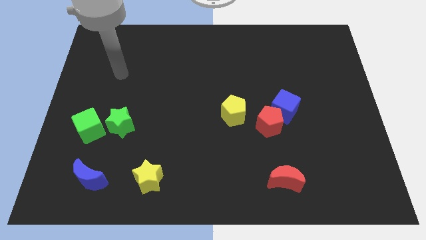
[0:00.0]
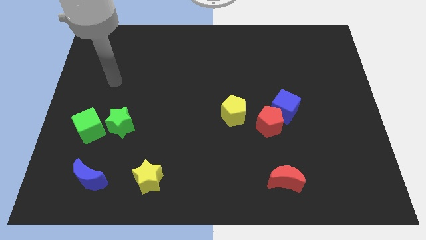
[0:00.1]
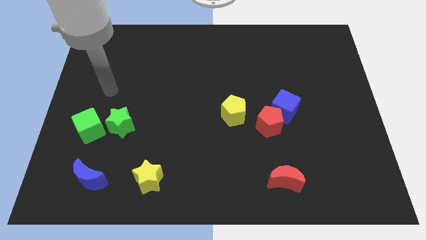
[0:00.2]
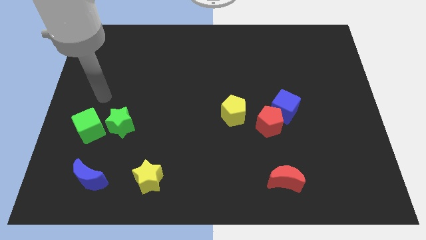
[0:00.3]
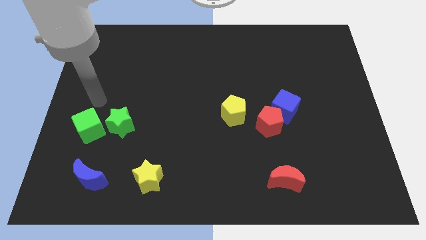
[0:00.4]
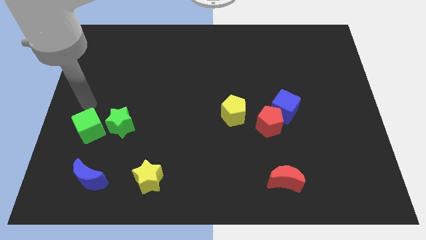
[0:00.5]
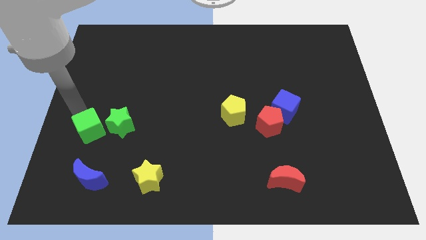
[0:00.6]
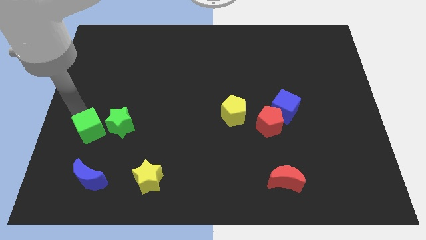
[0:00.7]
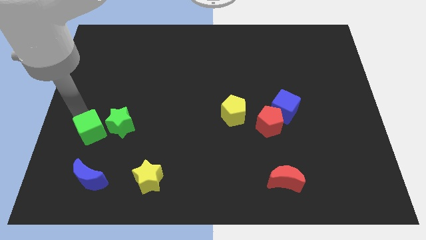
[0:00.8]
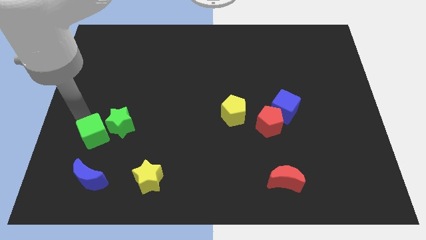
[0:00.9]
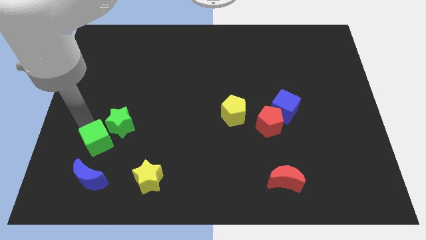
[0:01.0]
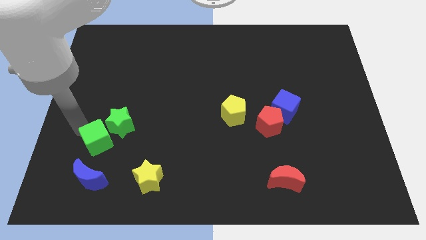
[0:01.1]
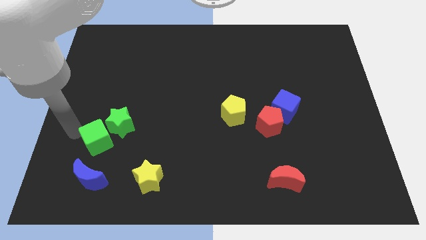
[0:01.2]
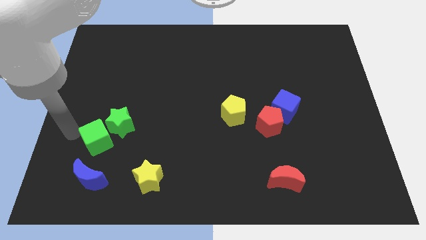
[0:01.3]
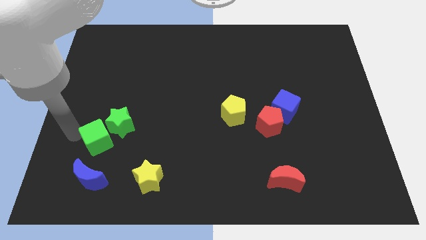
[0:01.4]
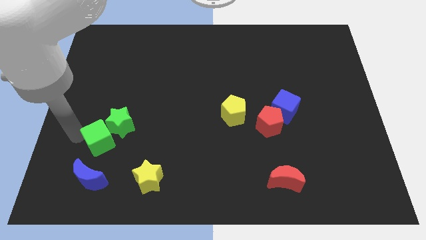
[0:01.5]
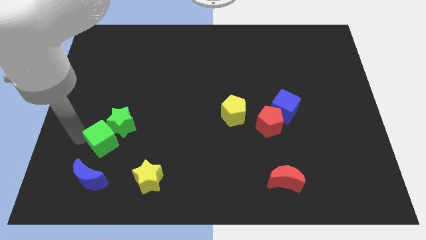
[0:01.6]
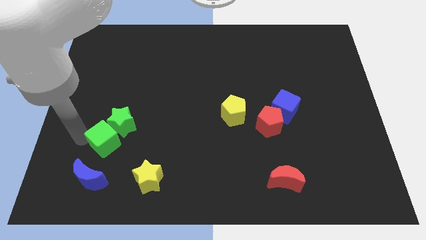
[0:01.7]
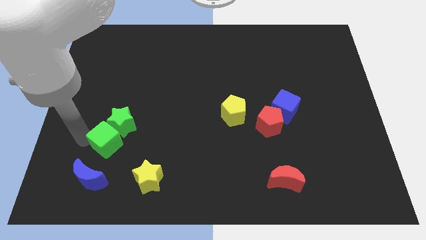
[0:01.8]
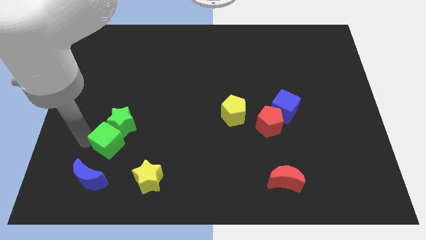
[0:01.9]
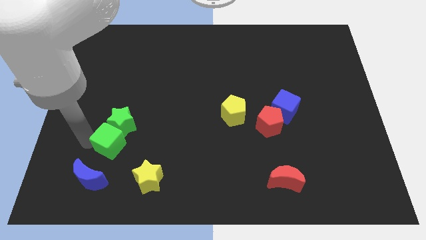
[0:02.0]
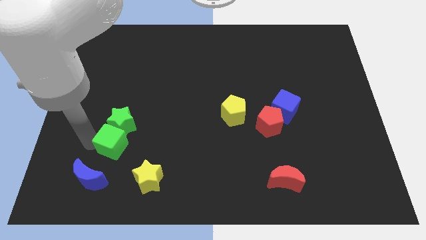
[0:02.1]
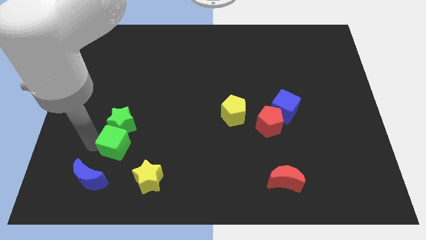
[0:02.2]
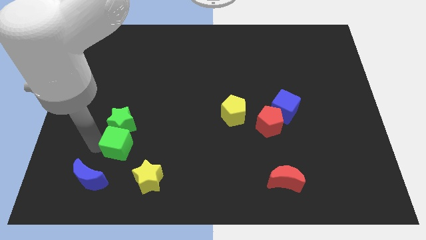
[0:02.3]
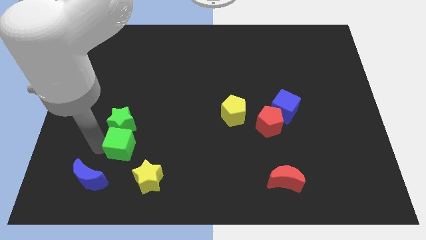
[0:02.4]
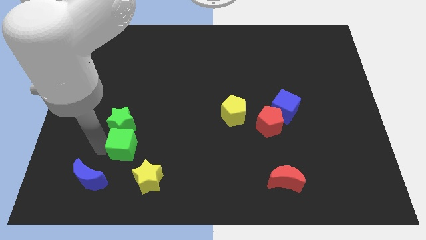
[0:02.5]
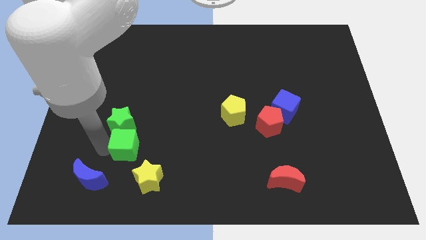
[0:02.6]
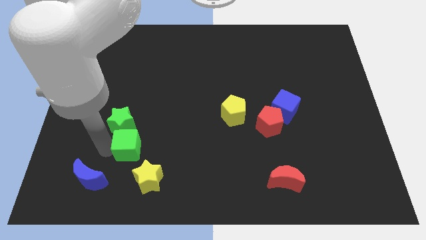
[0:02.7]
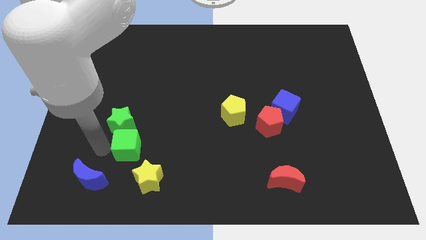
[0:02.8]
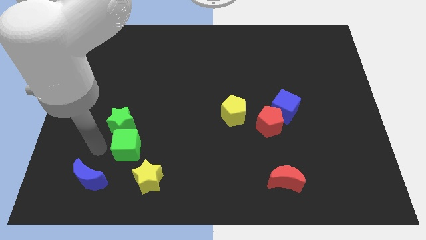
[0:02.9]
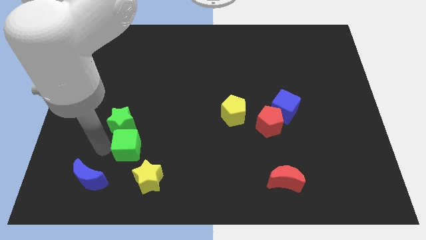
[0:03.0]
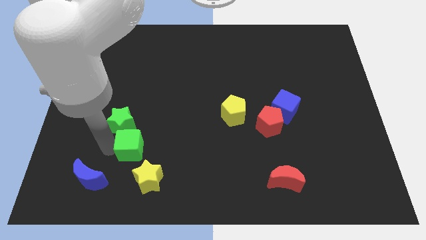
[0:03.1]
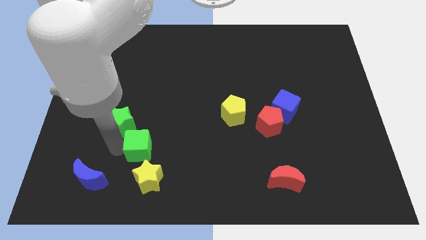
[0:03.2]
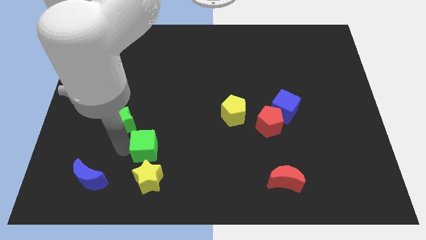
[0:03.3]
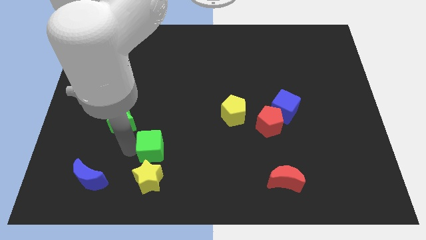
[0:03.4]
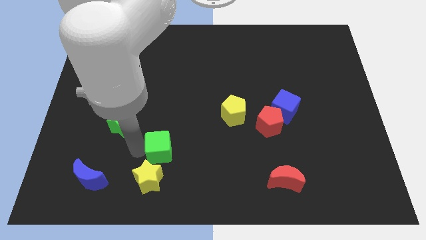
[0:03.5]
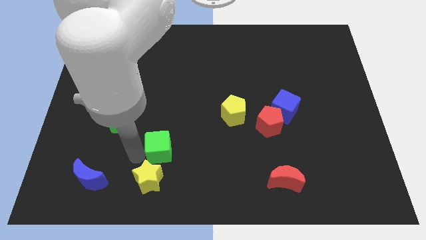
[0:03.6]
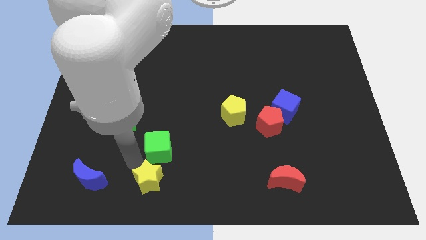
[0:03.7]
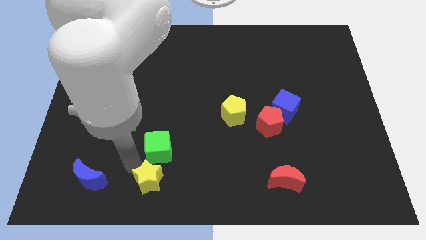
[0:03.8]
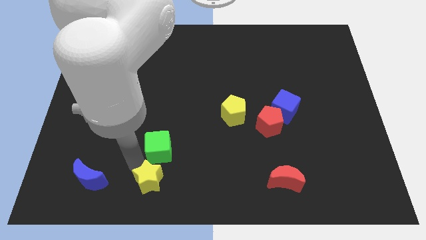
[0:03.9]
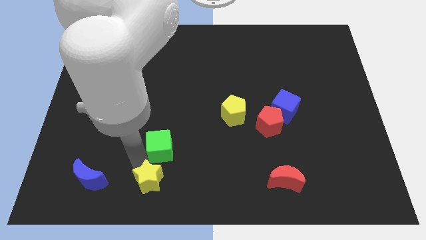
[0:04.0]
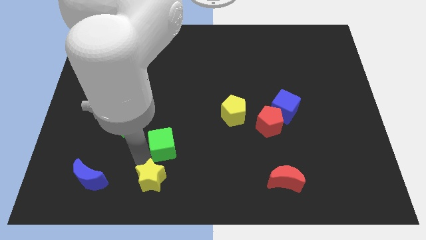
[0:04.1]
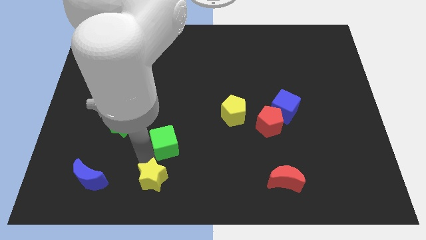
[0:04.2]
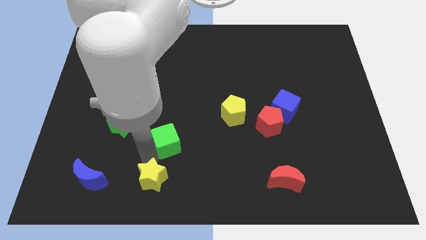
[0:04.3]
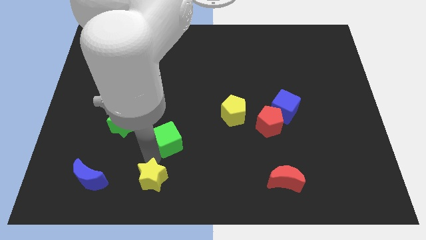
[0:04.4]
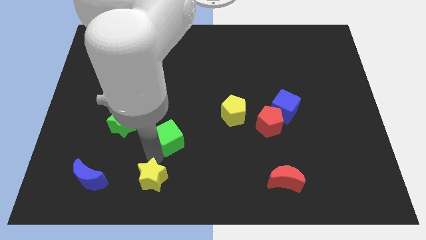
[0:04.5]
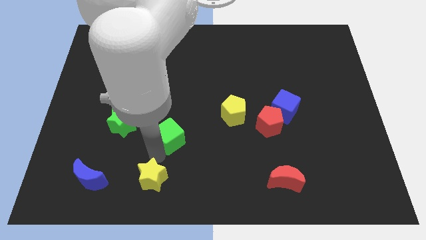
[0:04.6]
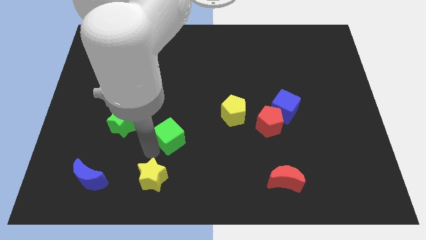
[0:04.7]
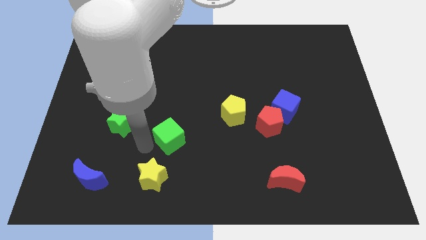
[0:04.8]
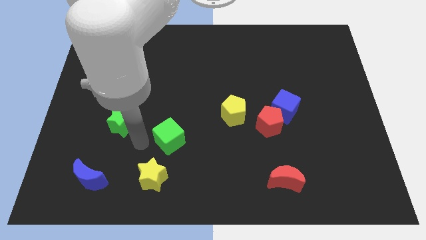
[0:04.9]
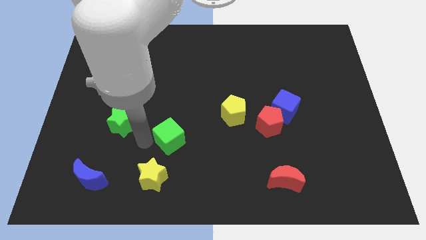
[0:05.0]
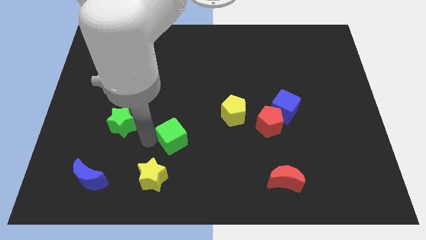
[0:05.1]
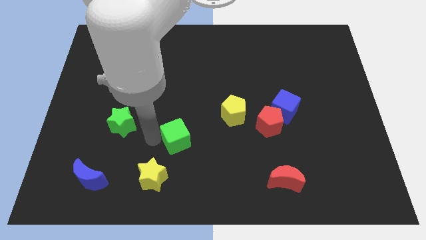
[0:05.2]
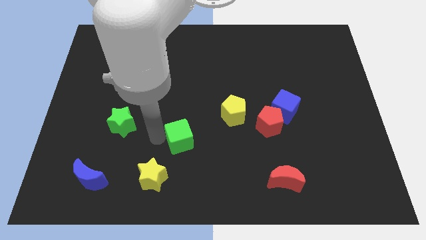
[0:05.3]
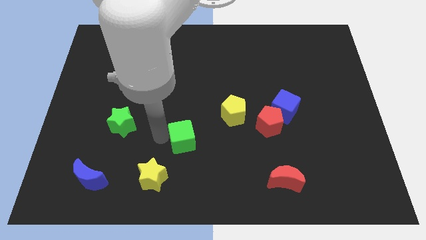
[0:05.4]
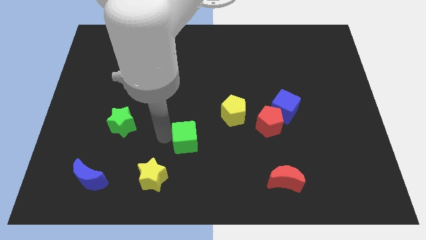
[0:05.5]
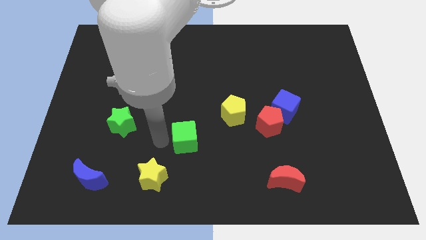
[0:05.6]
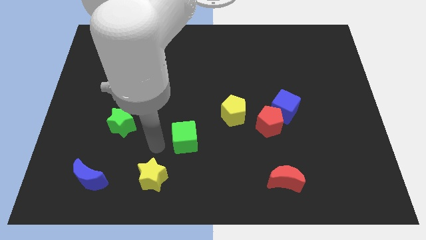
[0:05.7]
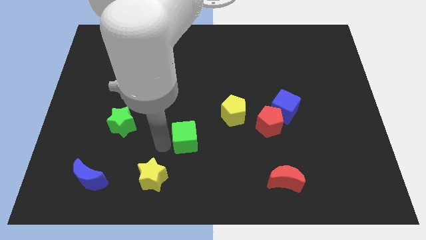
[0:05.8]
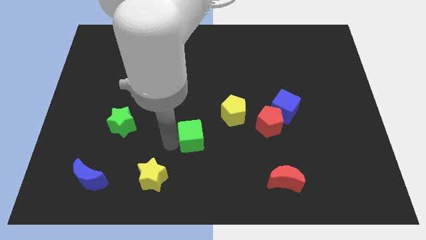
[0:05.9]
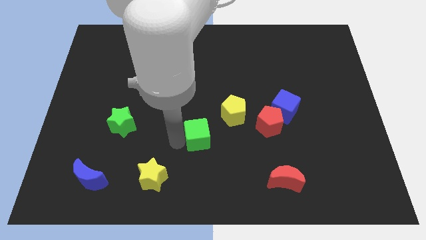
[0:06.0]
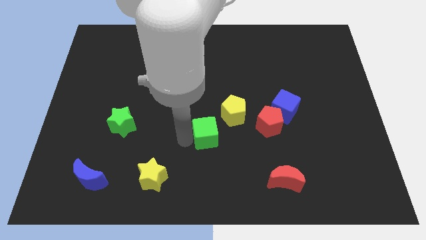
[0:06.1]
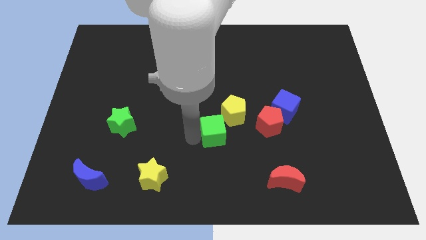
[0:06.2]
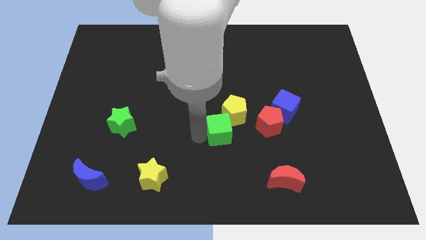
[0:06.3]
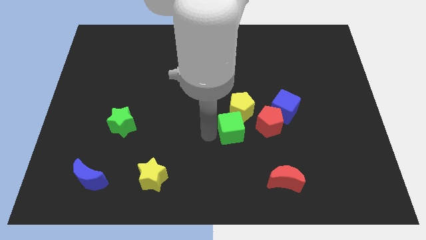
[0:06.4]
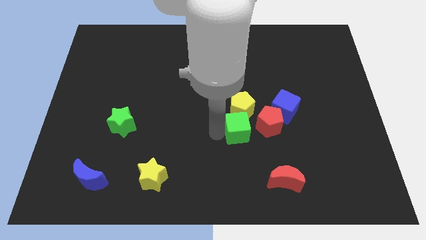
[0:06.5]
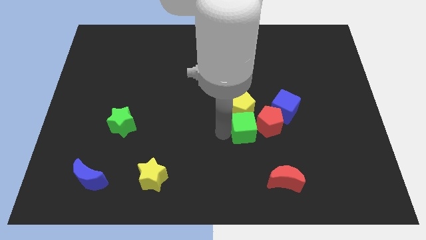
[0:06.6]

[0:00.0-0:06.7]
put the green cube to the red pentagon
